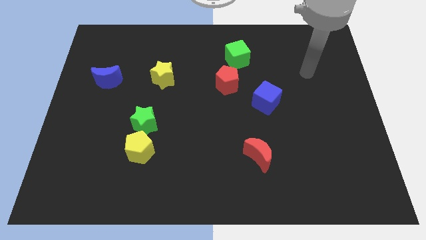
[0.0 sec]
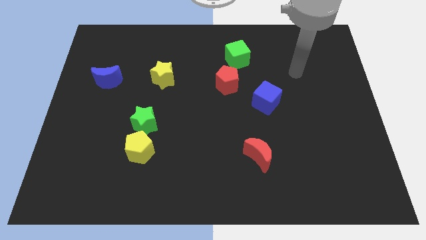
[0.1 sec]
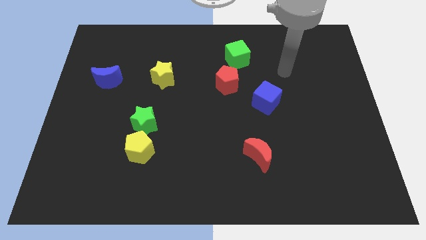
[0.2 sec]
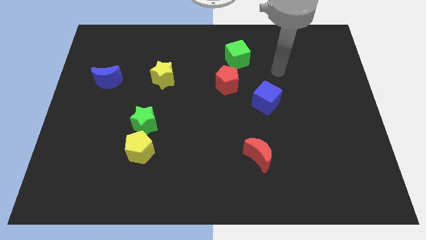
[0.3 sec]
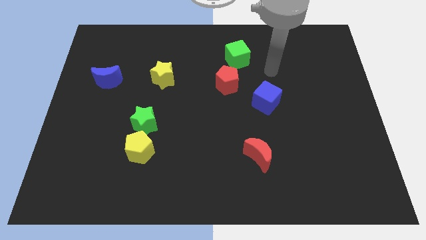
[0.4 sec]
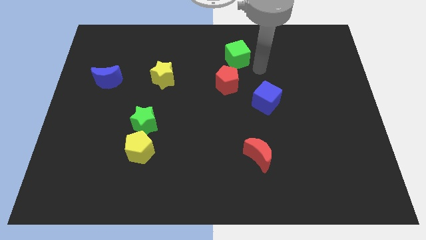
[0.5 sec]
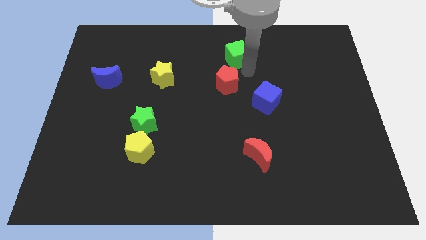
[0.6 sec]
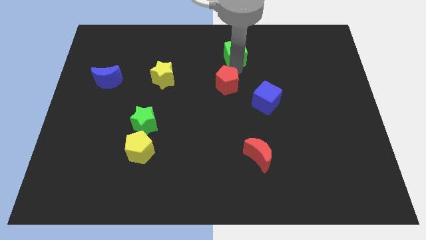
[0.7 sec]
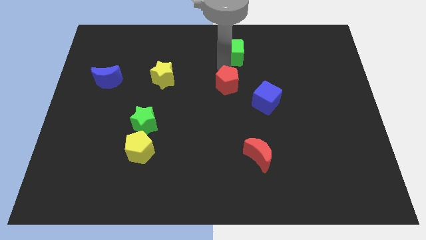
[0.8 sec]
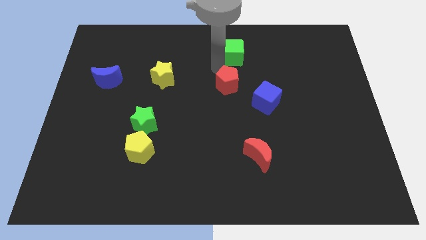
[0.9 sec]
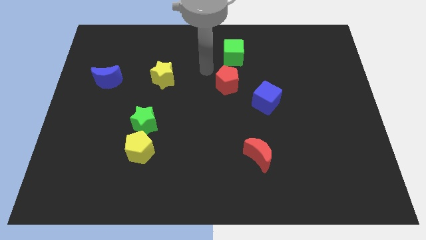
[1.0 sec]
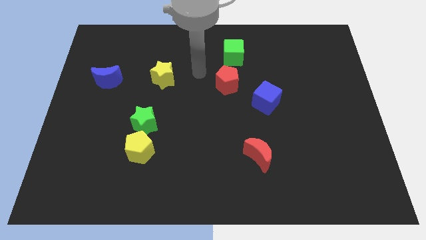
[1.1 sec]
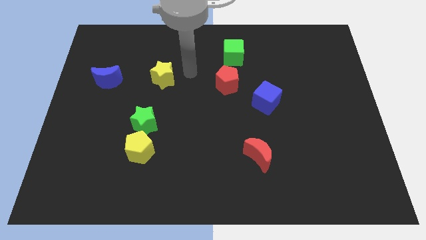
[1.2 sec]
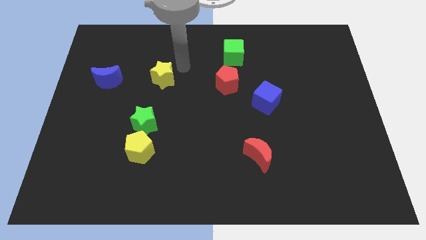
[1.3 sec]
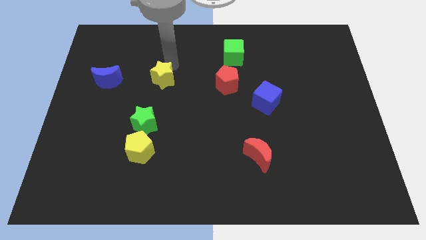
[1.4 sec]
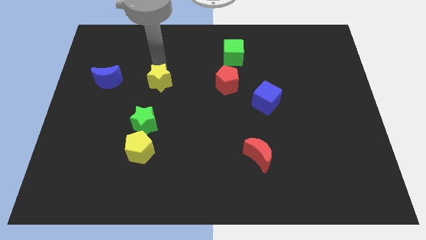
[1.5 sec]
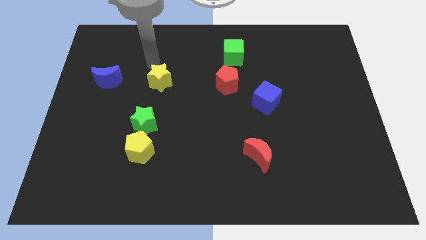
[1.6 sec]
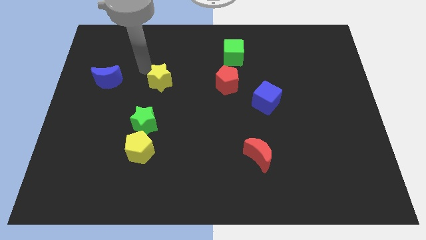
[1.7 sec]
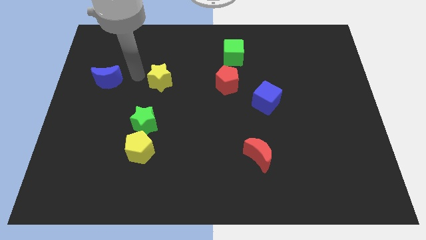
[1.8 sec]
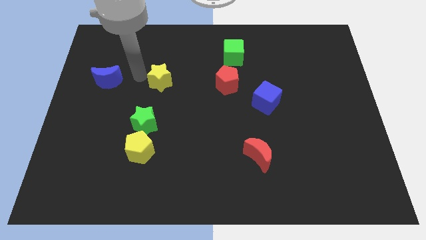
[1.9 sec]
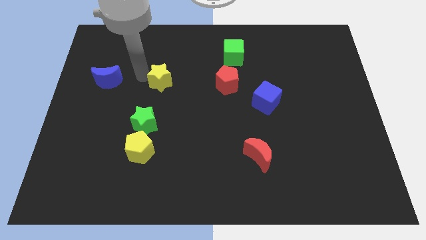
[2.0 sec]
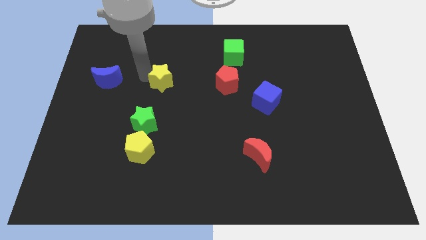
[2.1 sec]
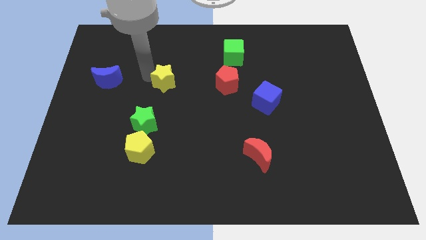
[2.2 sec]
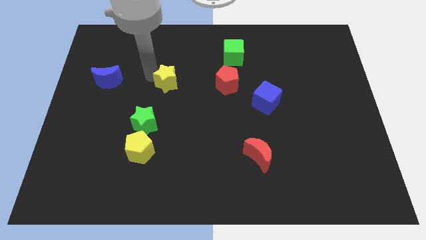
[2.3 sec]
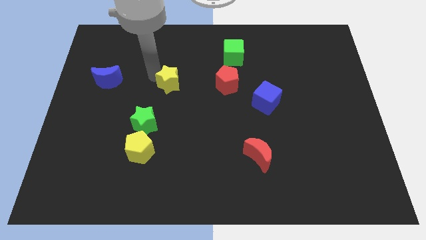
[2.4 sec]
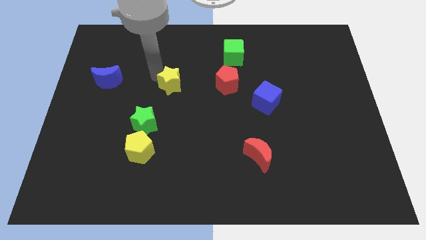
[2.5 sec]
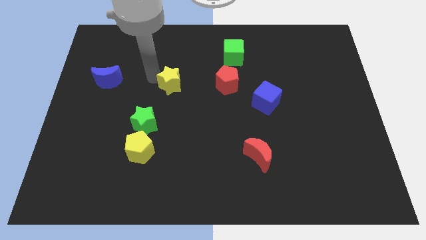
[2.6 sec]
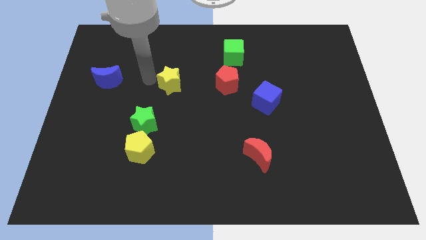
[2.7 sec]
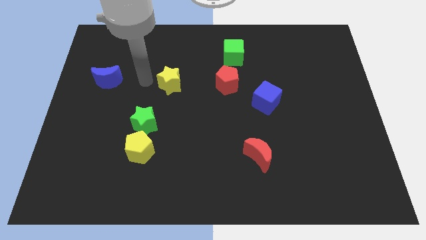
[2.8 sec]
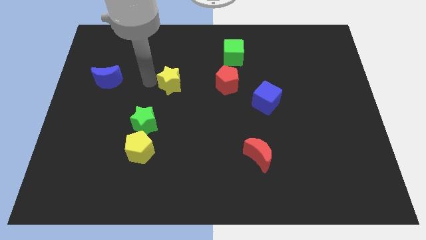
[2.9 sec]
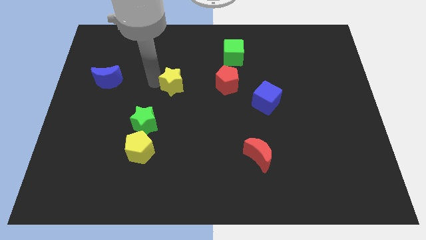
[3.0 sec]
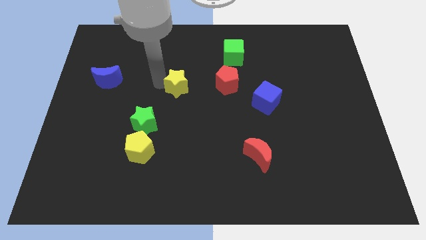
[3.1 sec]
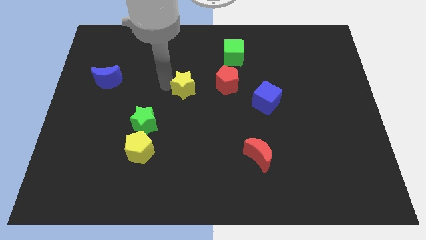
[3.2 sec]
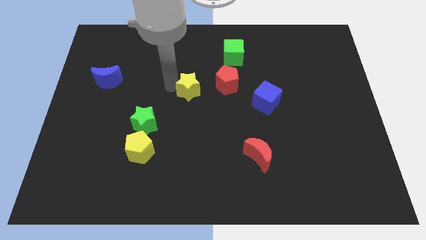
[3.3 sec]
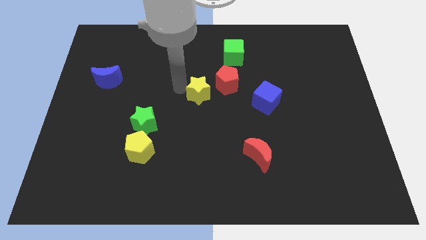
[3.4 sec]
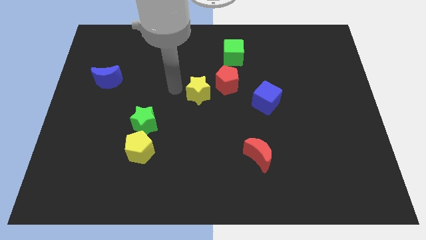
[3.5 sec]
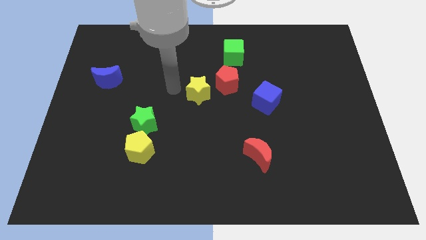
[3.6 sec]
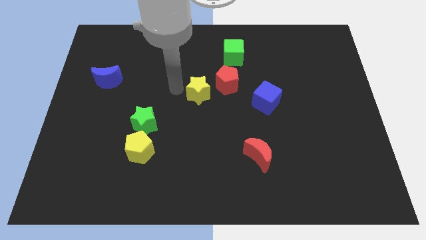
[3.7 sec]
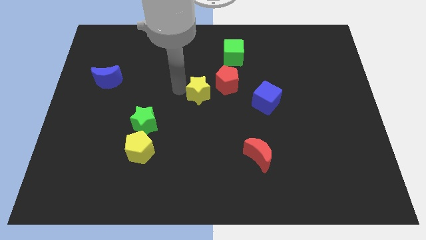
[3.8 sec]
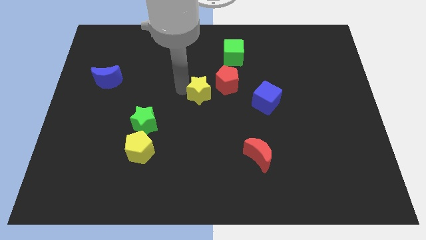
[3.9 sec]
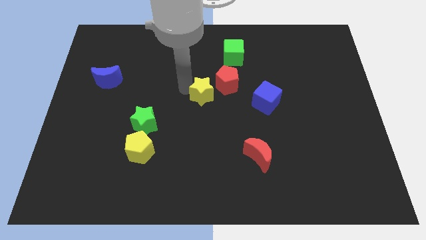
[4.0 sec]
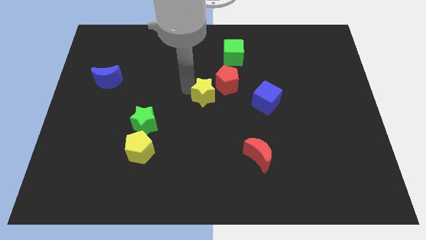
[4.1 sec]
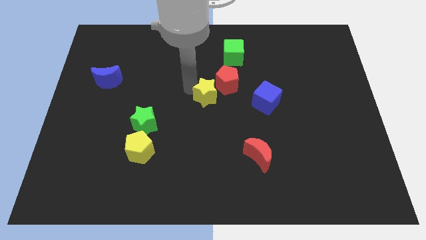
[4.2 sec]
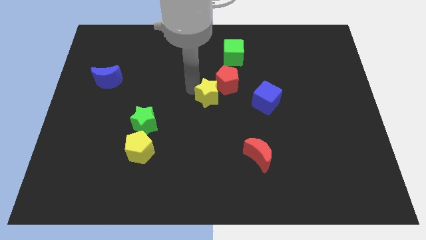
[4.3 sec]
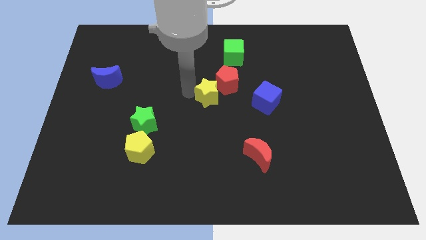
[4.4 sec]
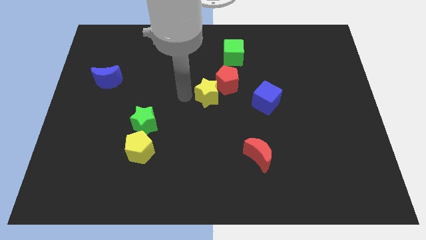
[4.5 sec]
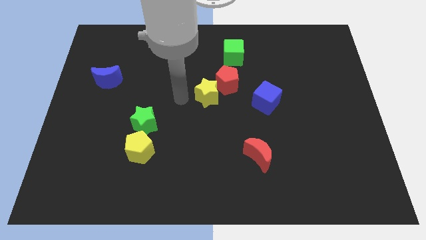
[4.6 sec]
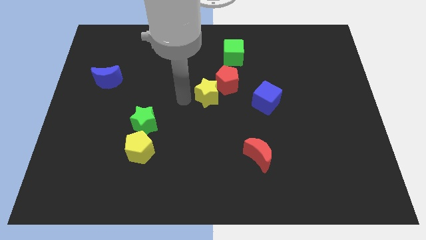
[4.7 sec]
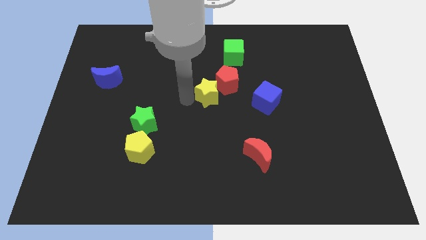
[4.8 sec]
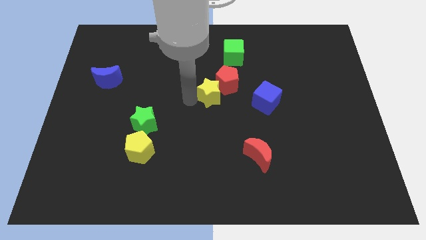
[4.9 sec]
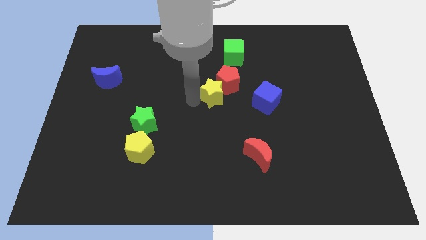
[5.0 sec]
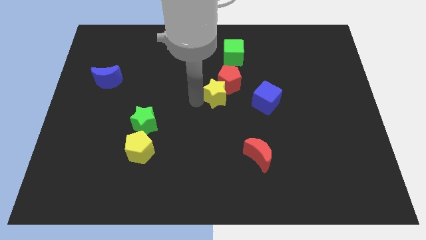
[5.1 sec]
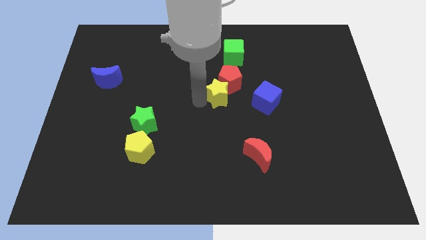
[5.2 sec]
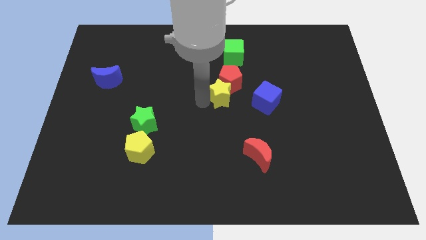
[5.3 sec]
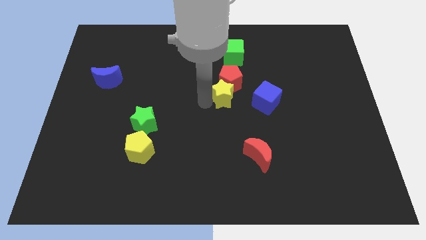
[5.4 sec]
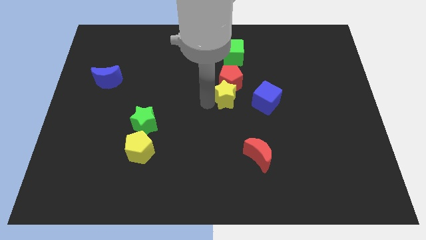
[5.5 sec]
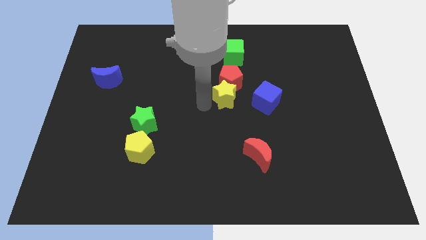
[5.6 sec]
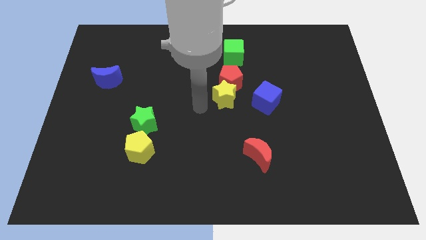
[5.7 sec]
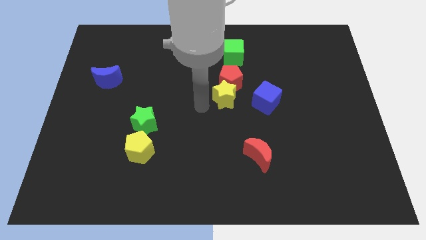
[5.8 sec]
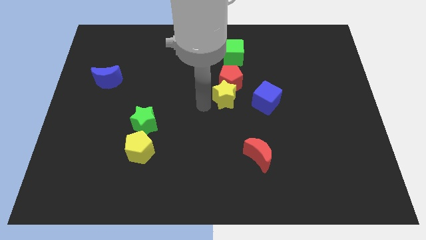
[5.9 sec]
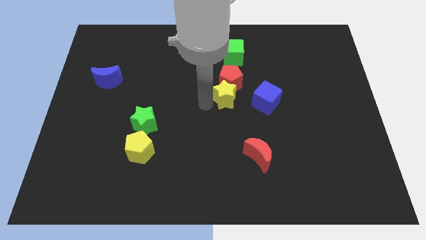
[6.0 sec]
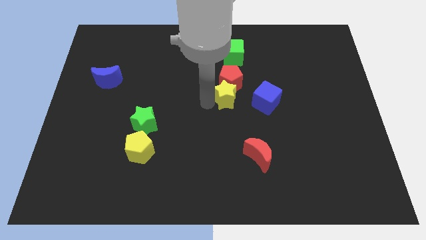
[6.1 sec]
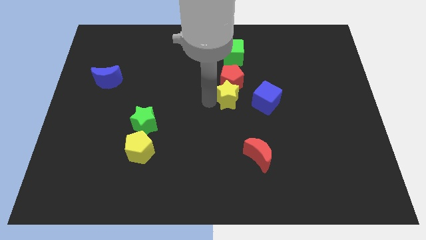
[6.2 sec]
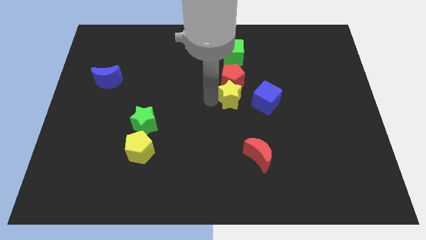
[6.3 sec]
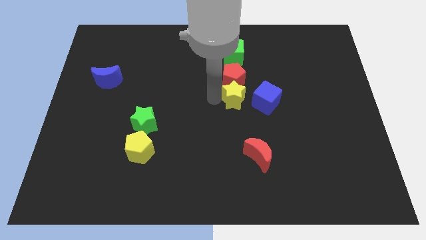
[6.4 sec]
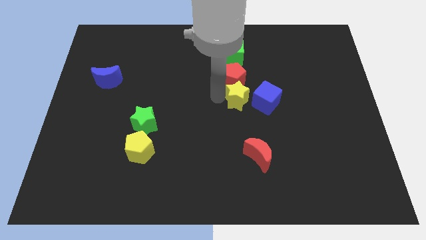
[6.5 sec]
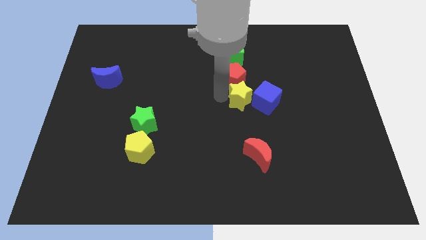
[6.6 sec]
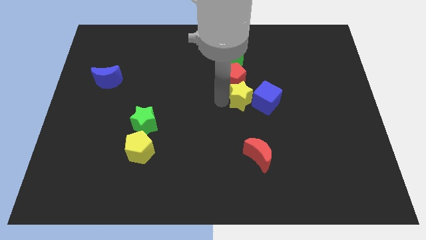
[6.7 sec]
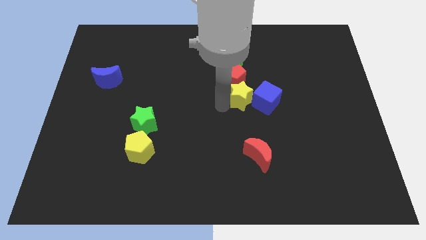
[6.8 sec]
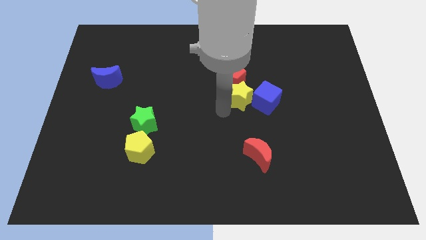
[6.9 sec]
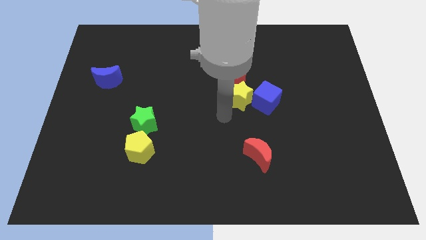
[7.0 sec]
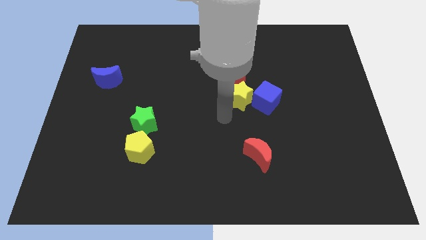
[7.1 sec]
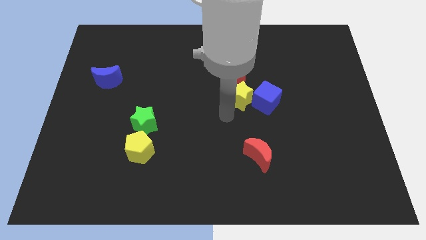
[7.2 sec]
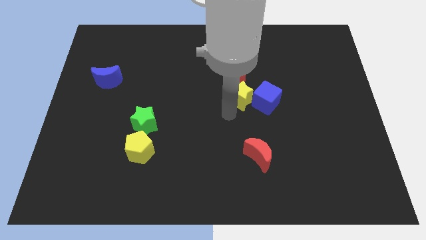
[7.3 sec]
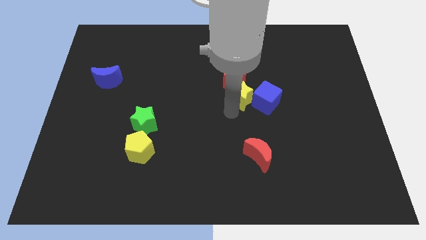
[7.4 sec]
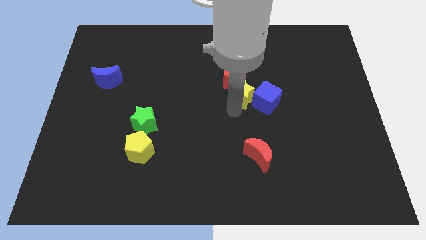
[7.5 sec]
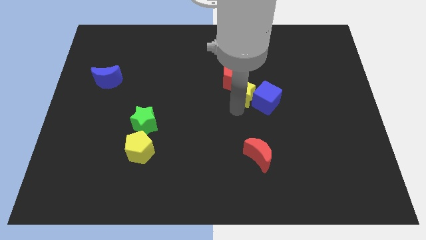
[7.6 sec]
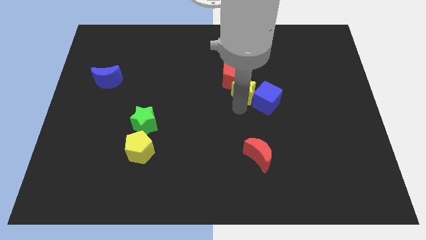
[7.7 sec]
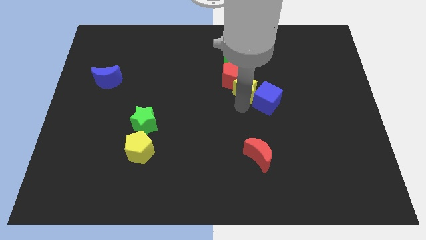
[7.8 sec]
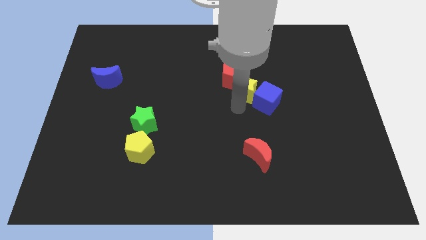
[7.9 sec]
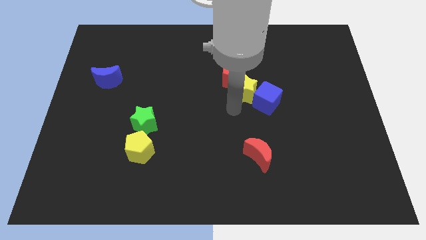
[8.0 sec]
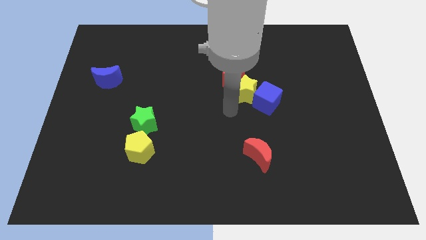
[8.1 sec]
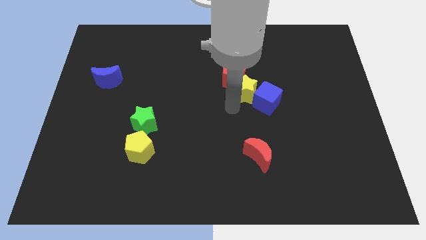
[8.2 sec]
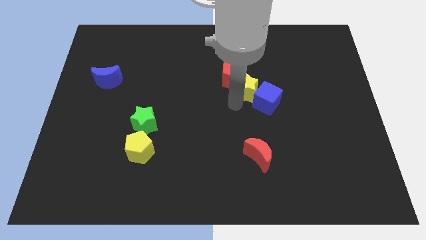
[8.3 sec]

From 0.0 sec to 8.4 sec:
slide the yellow star to the right
